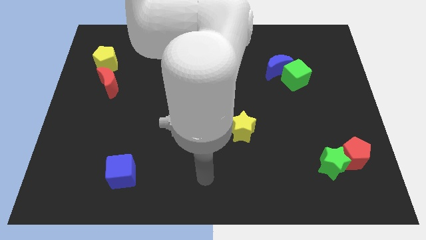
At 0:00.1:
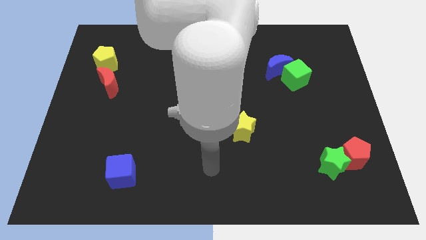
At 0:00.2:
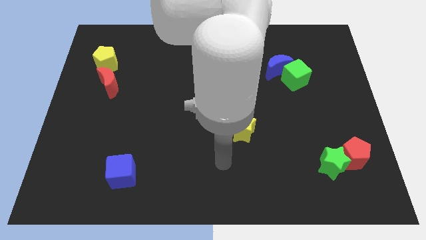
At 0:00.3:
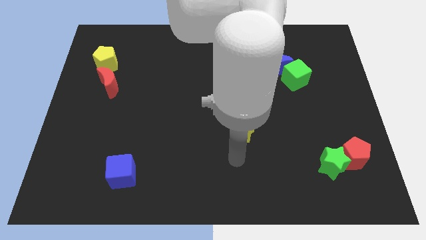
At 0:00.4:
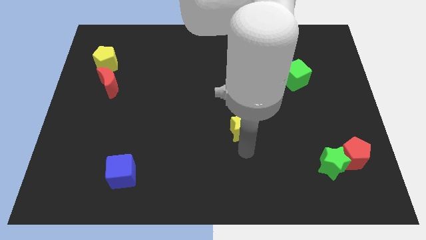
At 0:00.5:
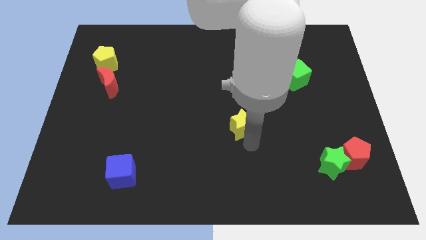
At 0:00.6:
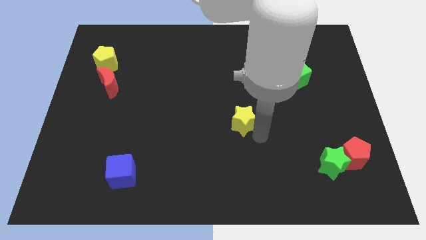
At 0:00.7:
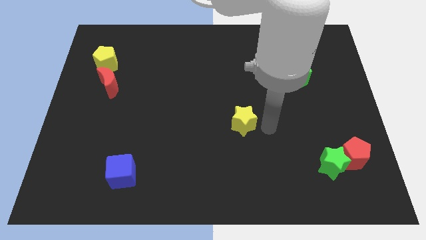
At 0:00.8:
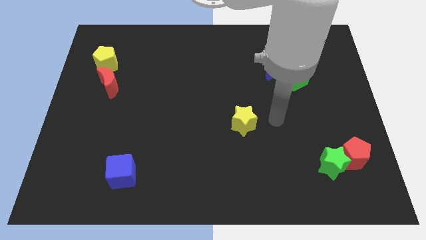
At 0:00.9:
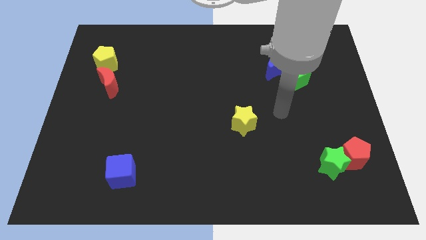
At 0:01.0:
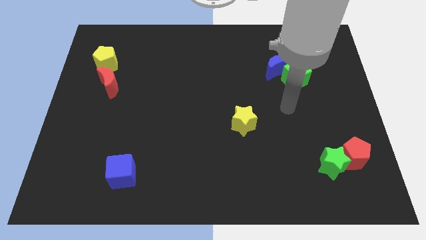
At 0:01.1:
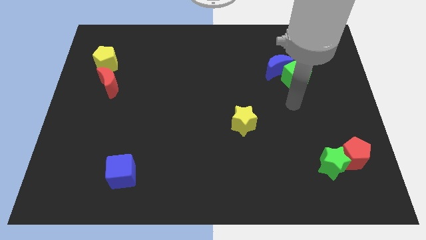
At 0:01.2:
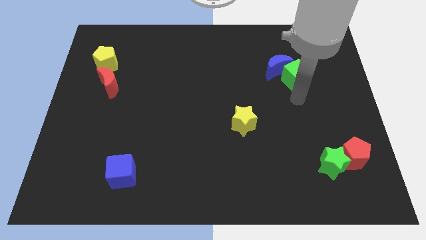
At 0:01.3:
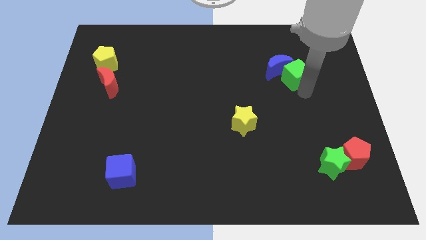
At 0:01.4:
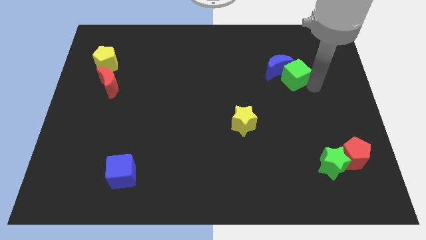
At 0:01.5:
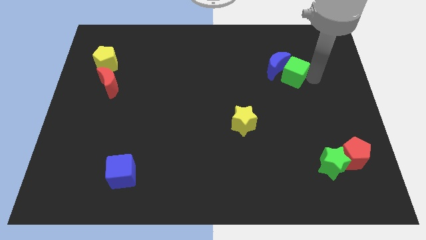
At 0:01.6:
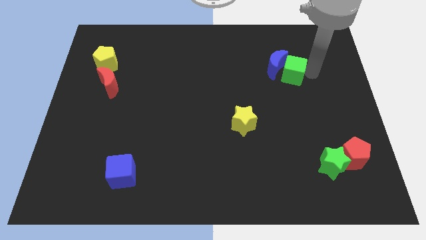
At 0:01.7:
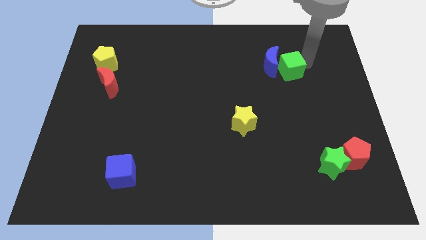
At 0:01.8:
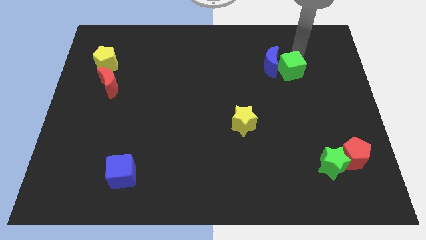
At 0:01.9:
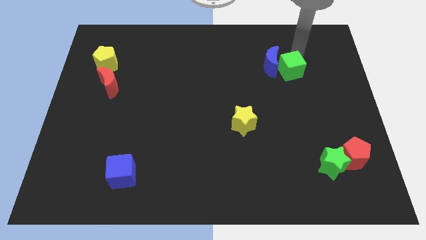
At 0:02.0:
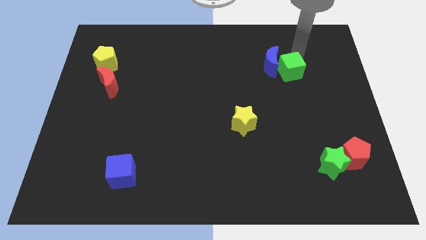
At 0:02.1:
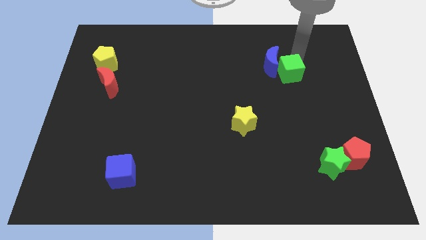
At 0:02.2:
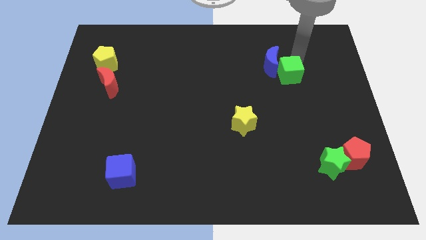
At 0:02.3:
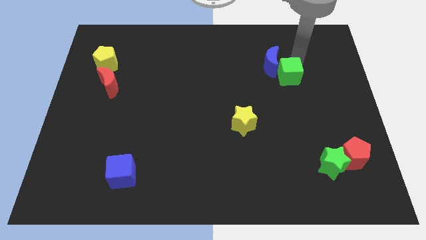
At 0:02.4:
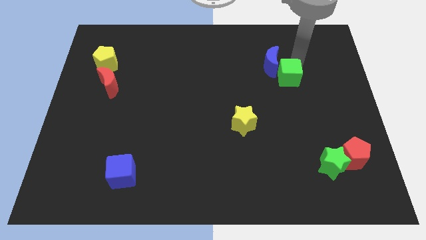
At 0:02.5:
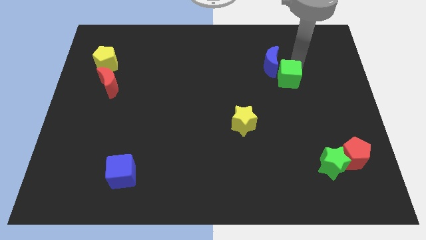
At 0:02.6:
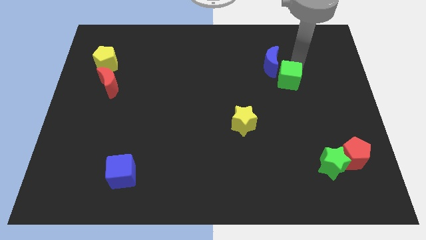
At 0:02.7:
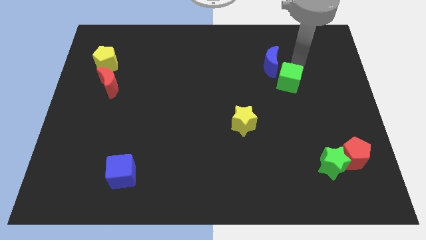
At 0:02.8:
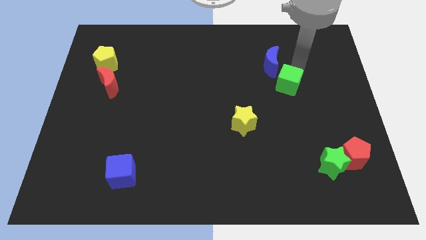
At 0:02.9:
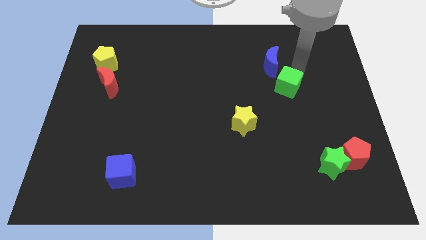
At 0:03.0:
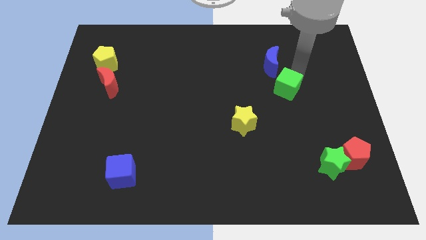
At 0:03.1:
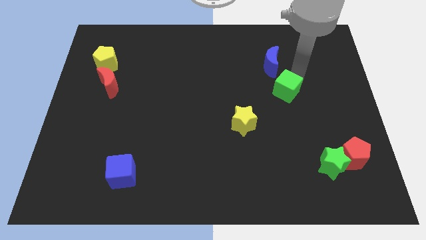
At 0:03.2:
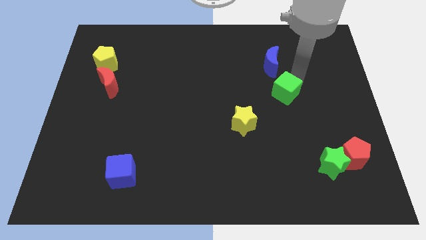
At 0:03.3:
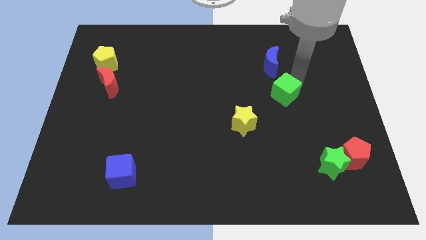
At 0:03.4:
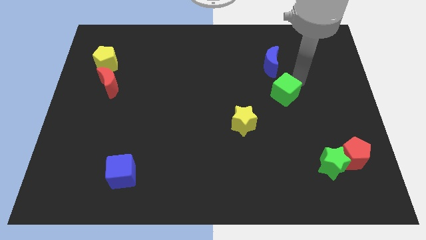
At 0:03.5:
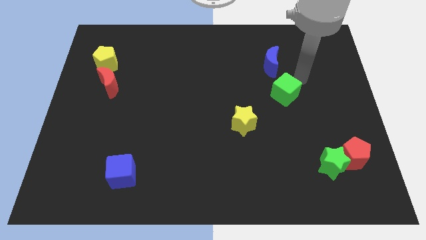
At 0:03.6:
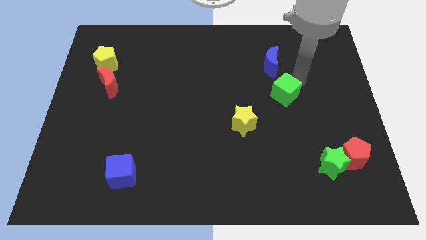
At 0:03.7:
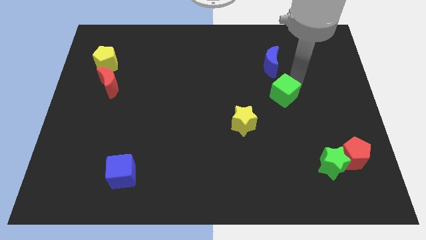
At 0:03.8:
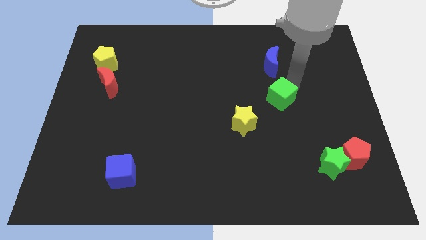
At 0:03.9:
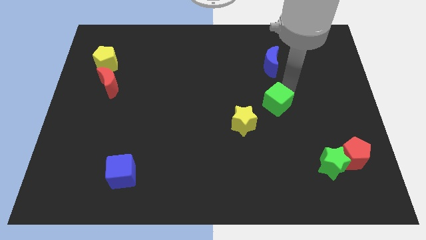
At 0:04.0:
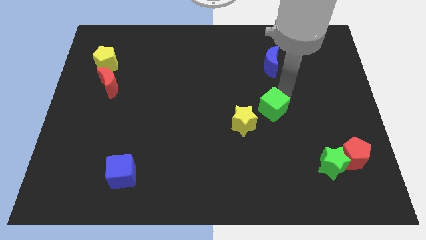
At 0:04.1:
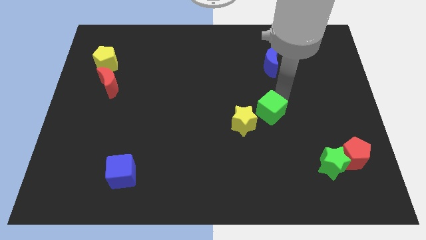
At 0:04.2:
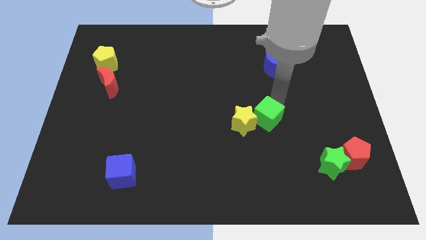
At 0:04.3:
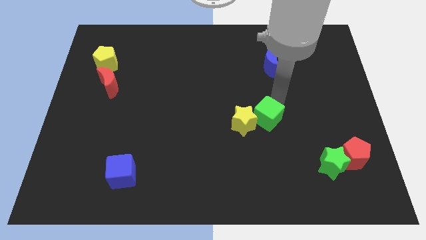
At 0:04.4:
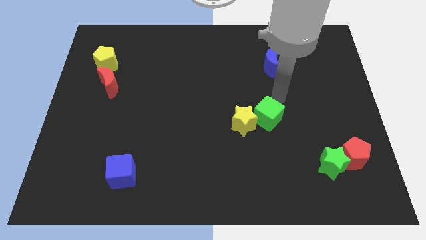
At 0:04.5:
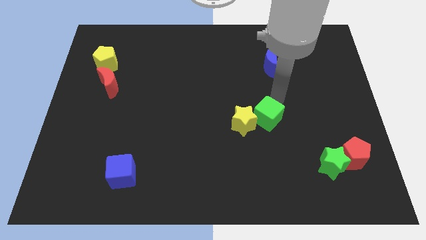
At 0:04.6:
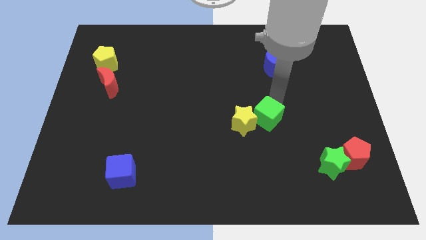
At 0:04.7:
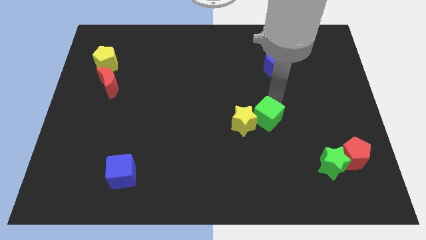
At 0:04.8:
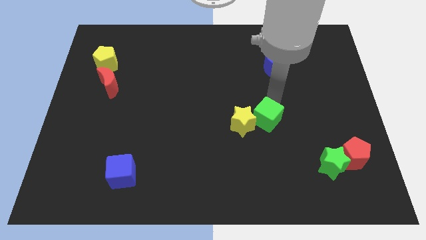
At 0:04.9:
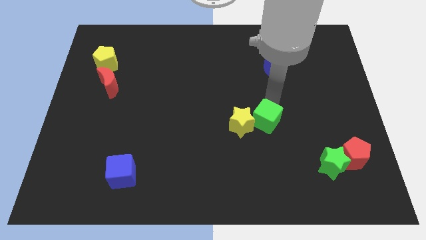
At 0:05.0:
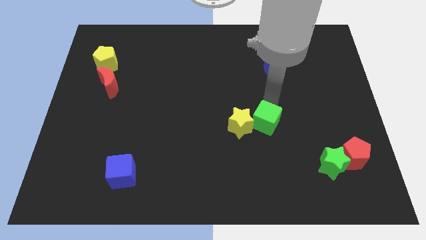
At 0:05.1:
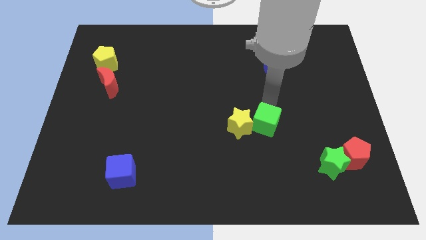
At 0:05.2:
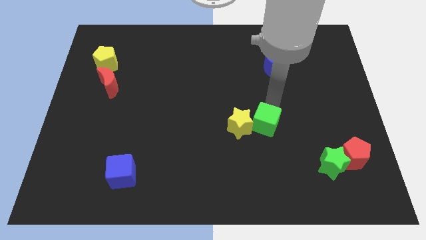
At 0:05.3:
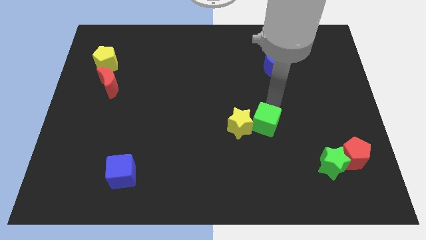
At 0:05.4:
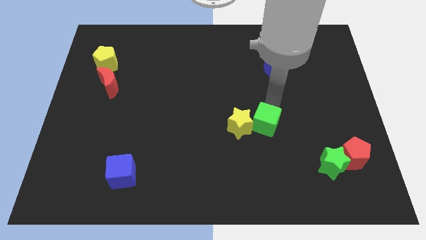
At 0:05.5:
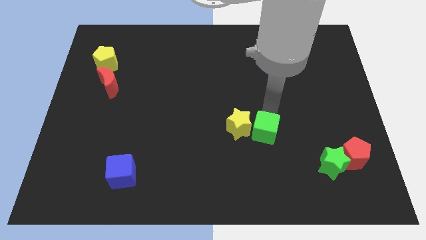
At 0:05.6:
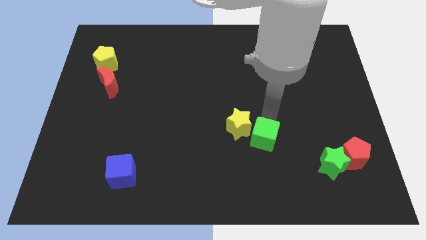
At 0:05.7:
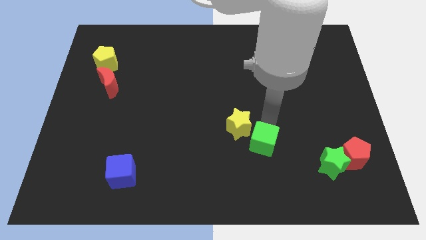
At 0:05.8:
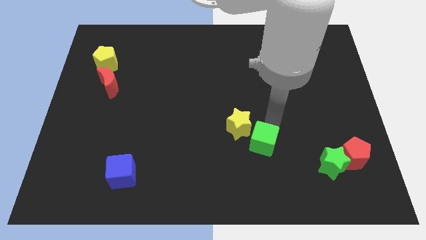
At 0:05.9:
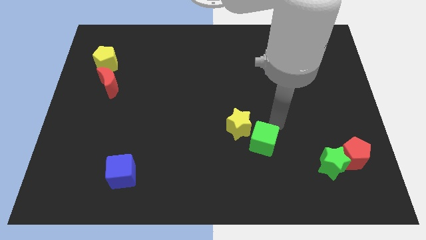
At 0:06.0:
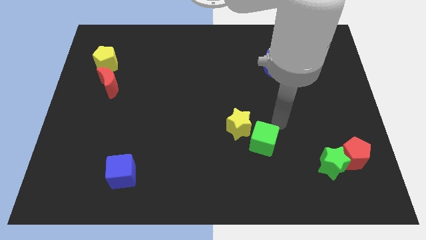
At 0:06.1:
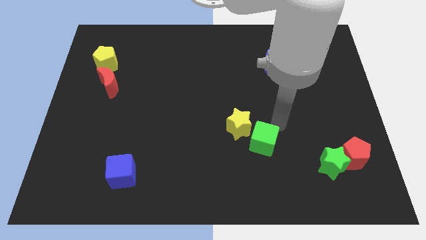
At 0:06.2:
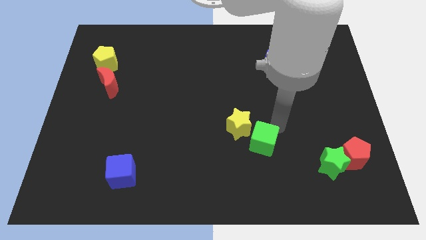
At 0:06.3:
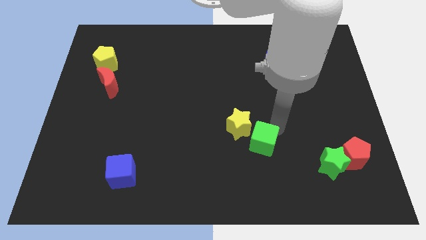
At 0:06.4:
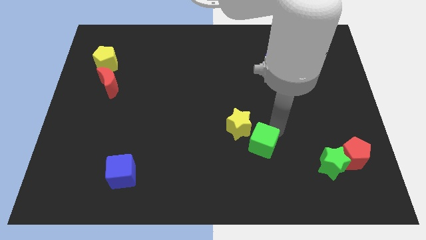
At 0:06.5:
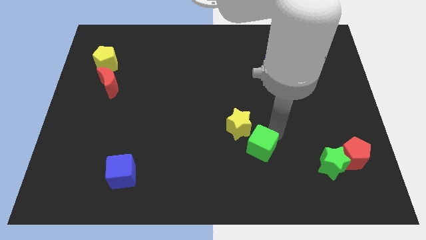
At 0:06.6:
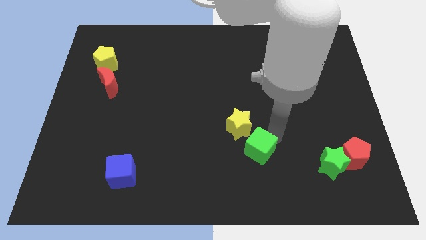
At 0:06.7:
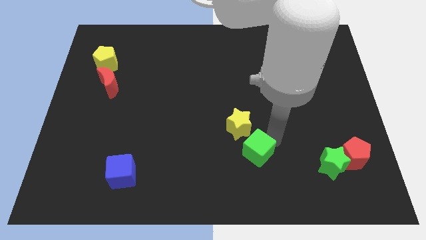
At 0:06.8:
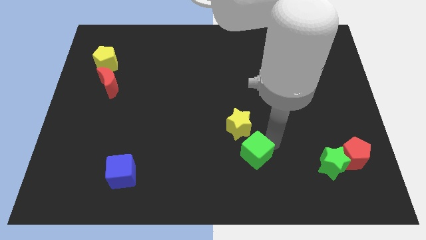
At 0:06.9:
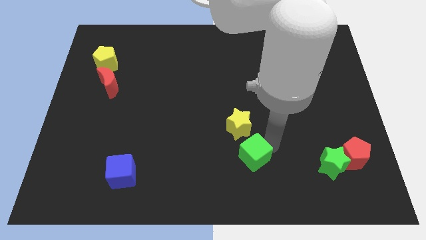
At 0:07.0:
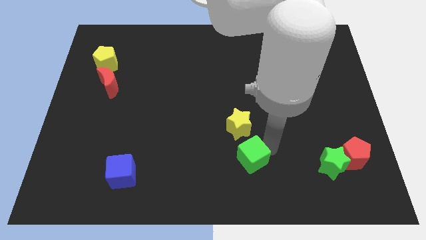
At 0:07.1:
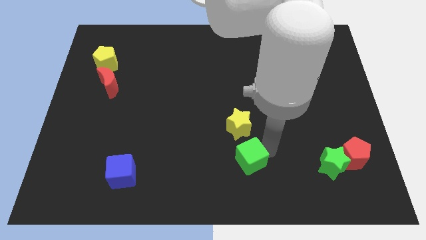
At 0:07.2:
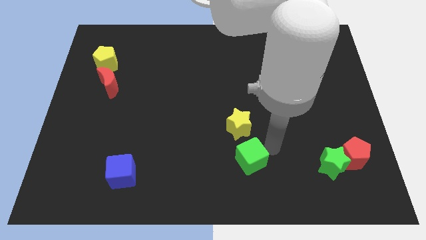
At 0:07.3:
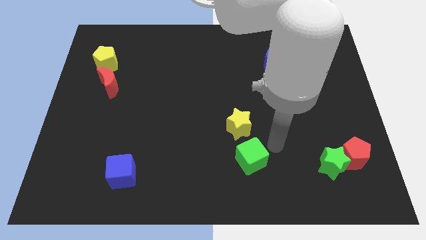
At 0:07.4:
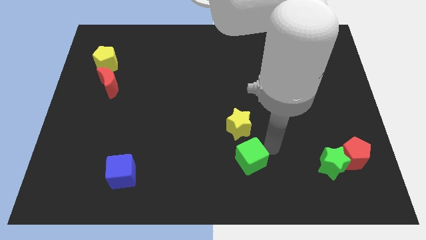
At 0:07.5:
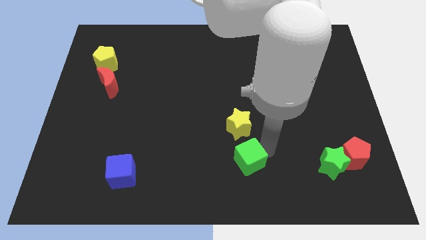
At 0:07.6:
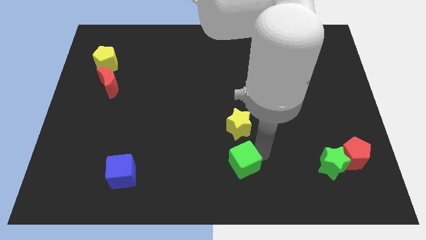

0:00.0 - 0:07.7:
move the green cube to the bottom

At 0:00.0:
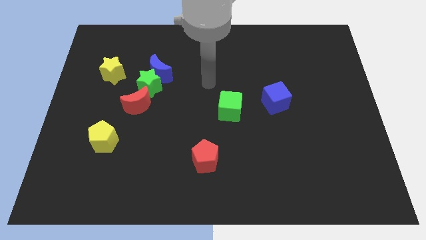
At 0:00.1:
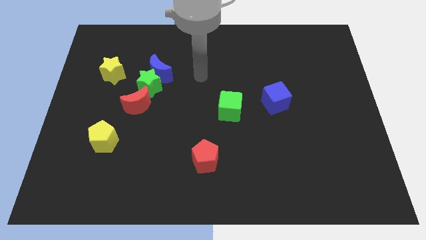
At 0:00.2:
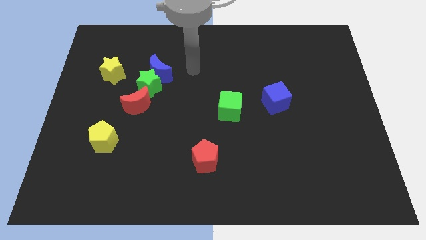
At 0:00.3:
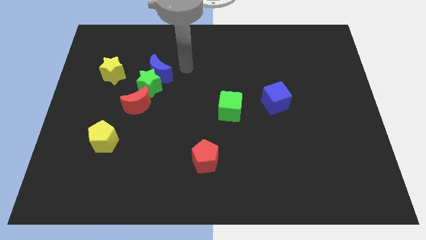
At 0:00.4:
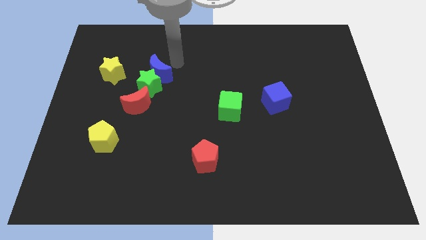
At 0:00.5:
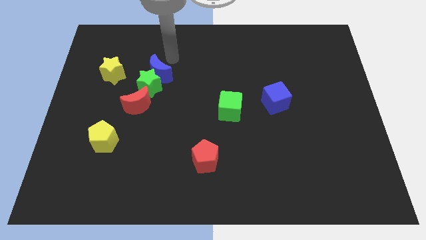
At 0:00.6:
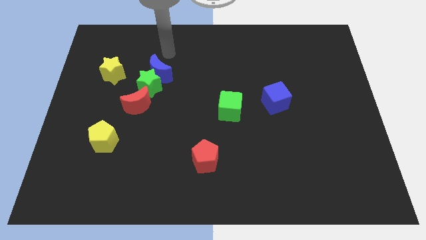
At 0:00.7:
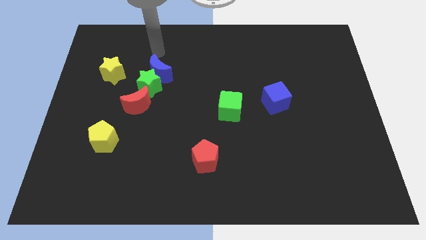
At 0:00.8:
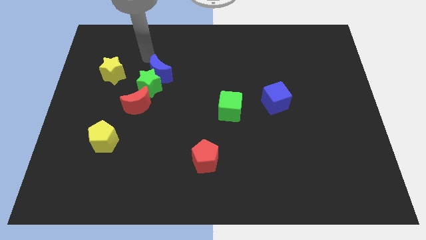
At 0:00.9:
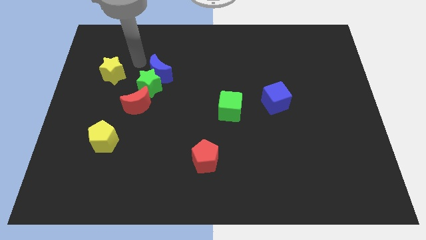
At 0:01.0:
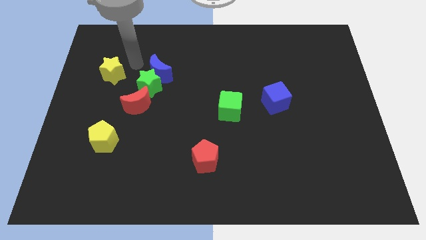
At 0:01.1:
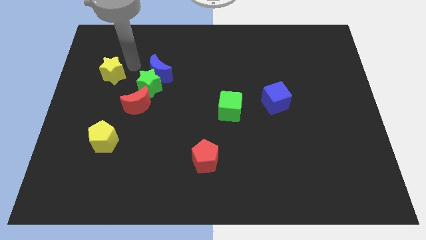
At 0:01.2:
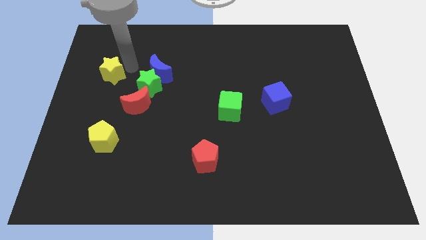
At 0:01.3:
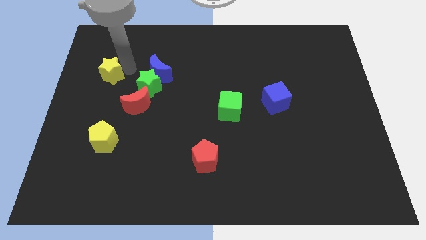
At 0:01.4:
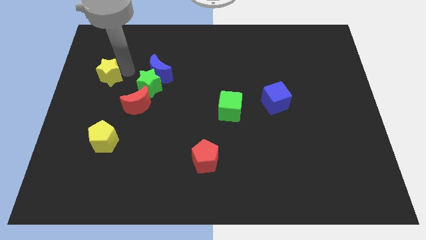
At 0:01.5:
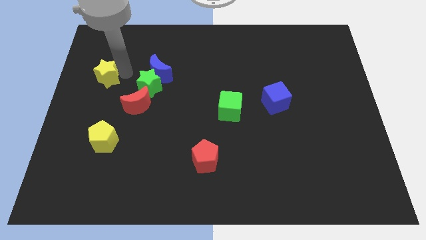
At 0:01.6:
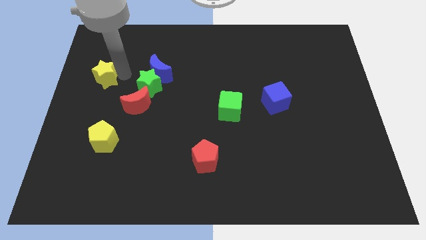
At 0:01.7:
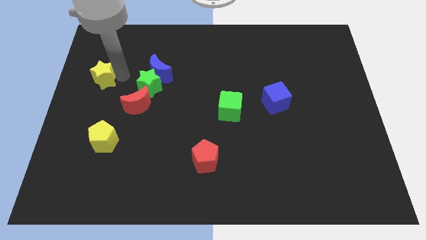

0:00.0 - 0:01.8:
push the yellow star to the left side of the board
